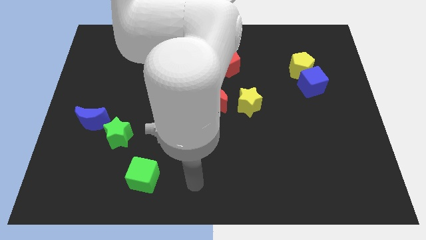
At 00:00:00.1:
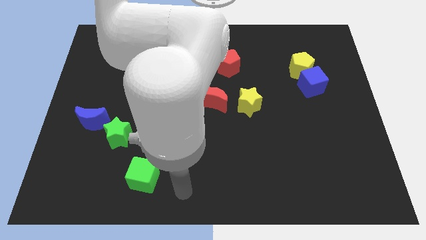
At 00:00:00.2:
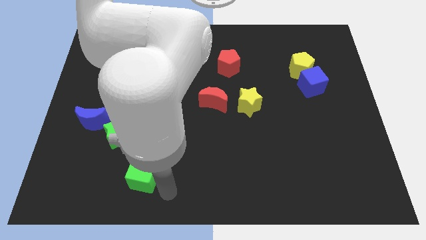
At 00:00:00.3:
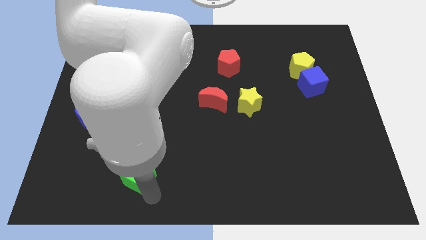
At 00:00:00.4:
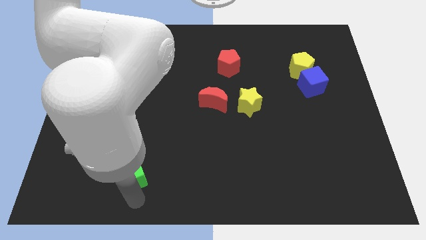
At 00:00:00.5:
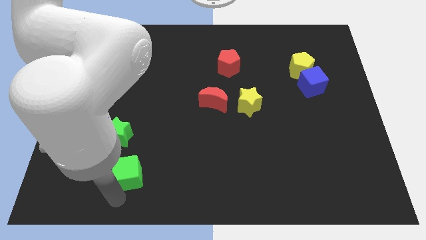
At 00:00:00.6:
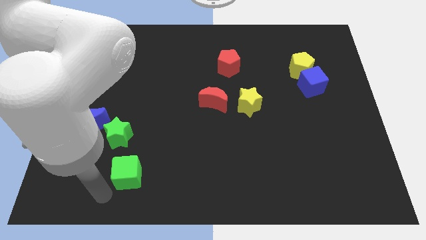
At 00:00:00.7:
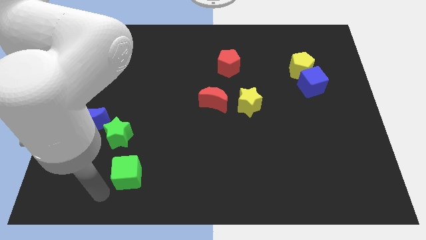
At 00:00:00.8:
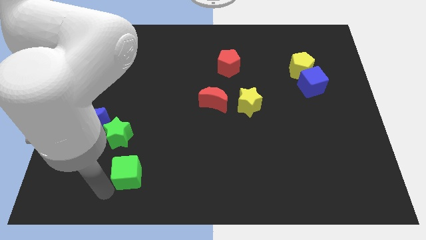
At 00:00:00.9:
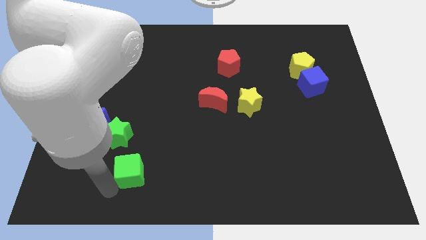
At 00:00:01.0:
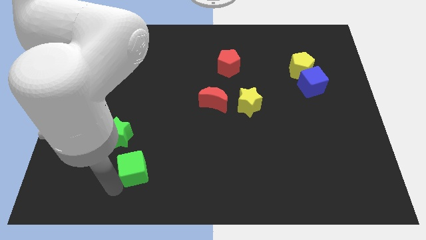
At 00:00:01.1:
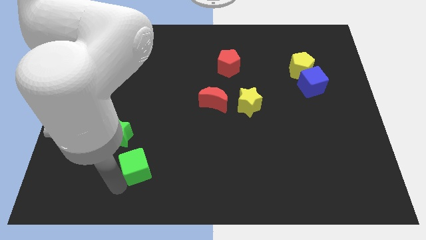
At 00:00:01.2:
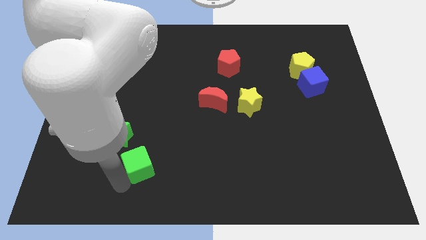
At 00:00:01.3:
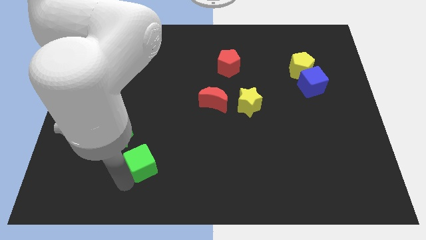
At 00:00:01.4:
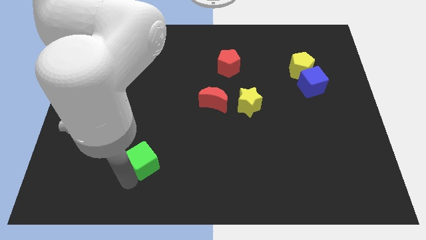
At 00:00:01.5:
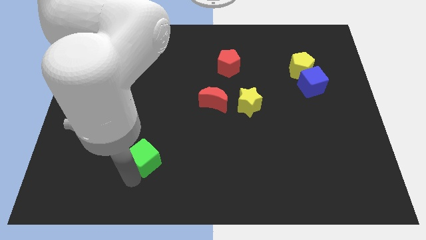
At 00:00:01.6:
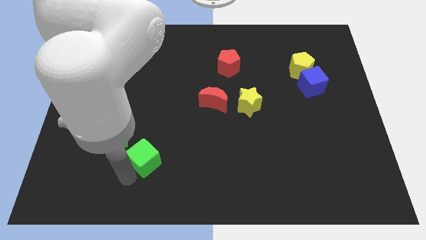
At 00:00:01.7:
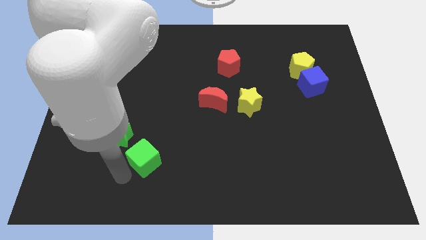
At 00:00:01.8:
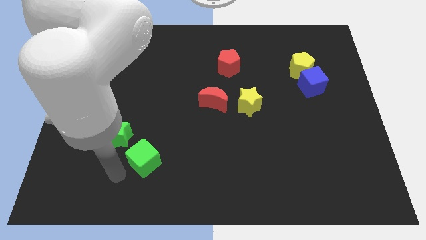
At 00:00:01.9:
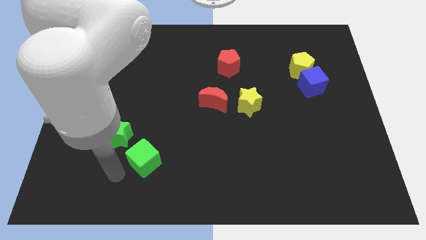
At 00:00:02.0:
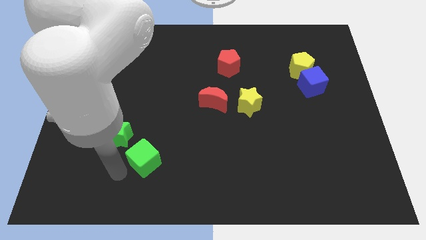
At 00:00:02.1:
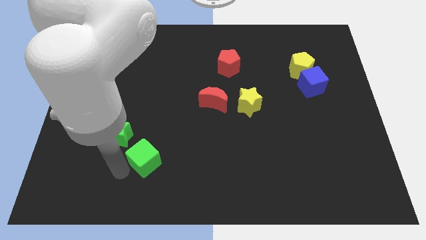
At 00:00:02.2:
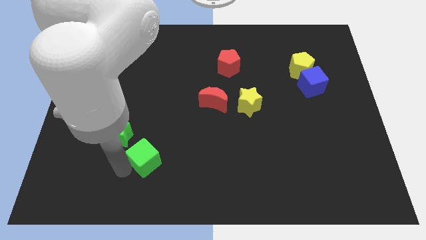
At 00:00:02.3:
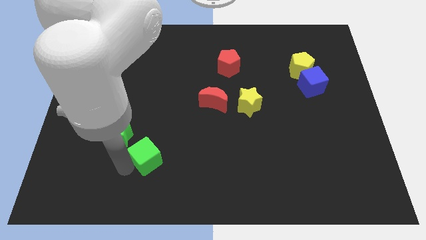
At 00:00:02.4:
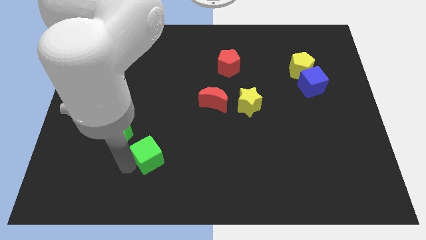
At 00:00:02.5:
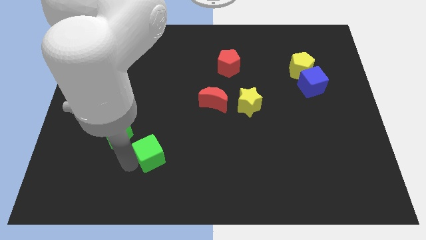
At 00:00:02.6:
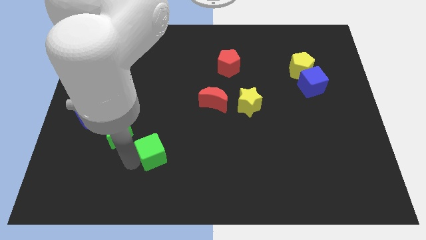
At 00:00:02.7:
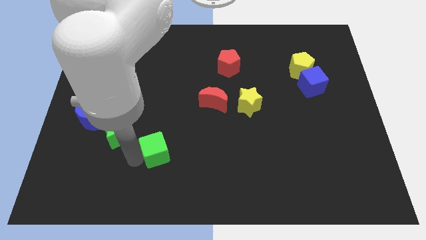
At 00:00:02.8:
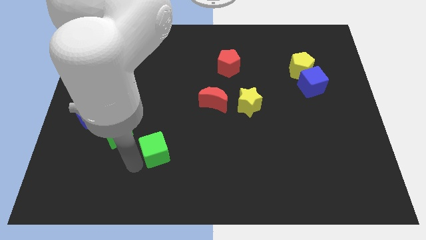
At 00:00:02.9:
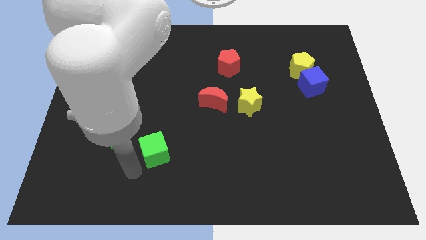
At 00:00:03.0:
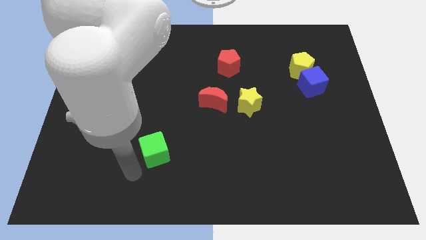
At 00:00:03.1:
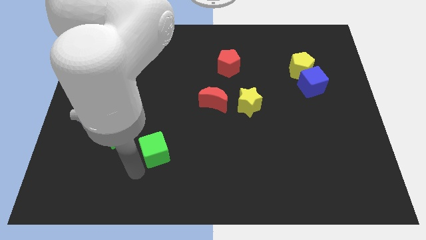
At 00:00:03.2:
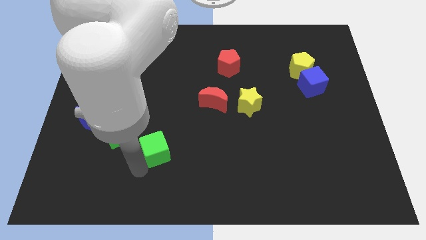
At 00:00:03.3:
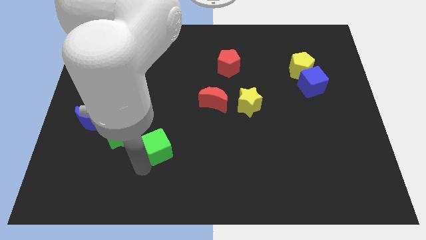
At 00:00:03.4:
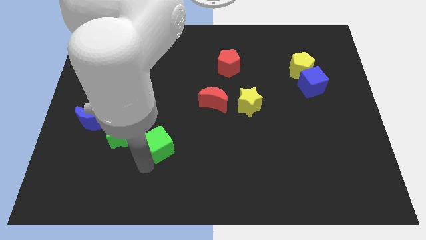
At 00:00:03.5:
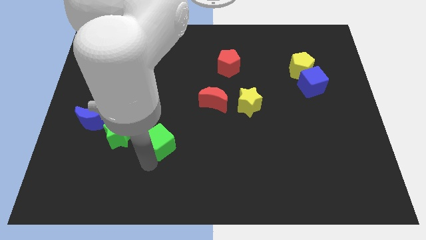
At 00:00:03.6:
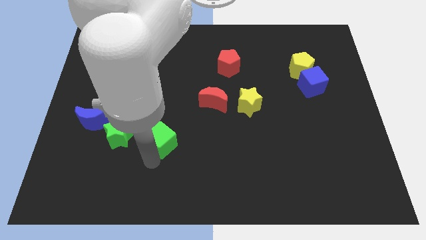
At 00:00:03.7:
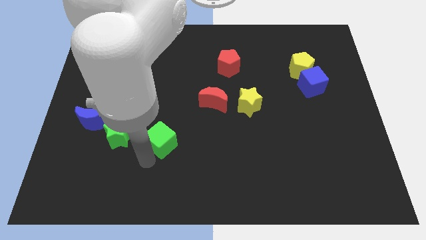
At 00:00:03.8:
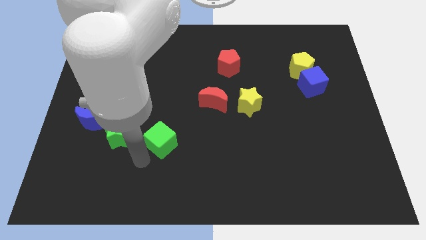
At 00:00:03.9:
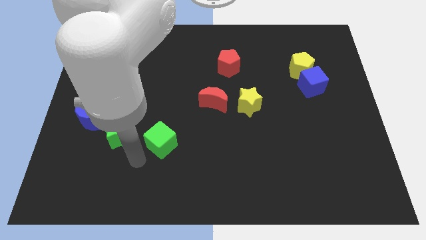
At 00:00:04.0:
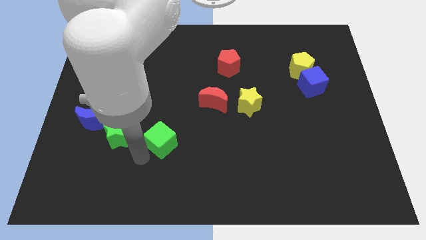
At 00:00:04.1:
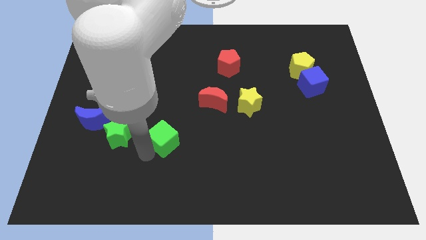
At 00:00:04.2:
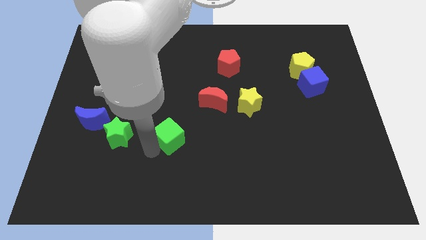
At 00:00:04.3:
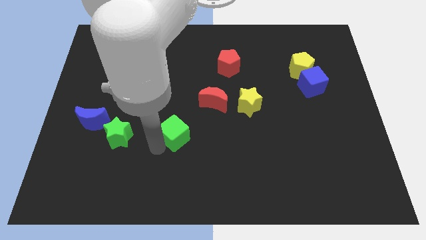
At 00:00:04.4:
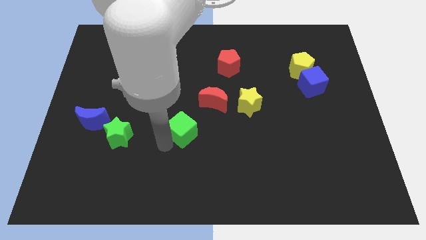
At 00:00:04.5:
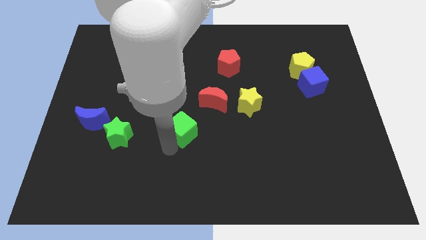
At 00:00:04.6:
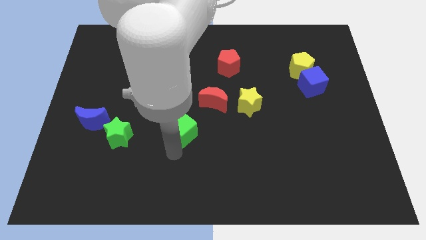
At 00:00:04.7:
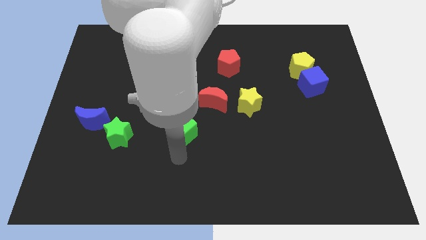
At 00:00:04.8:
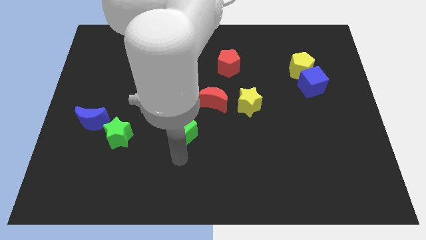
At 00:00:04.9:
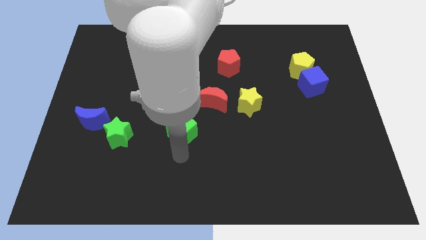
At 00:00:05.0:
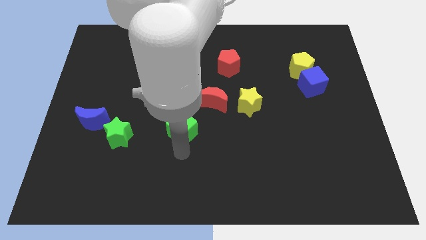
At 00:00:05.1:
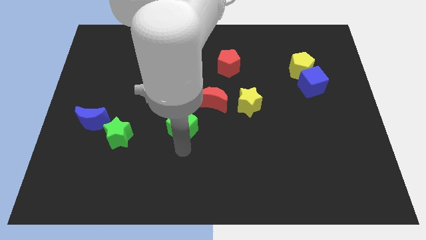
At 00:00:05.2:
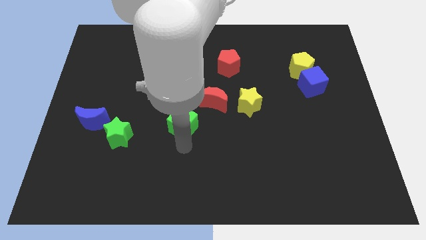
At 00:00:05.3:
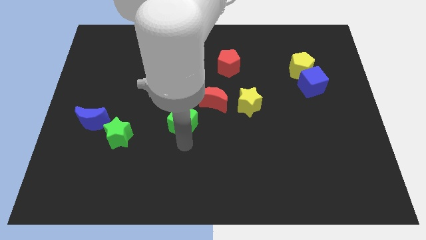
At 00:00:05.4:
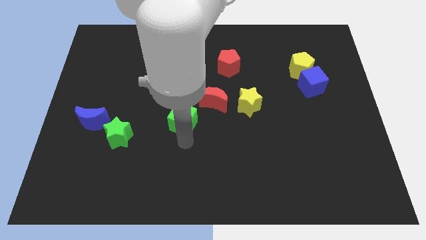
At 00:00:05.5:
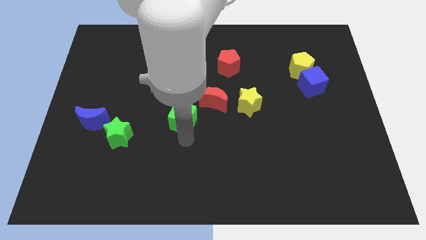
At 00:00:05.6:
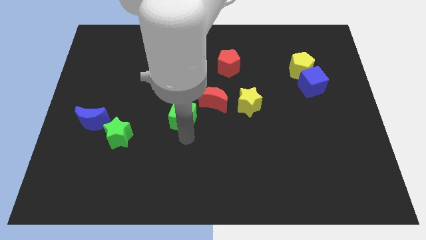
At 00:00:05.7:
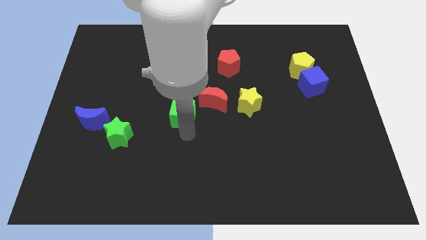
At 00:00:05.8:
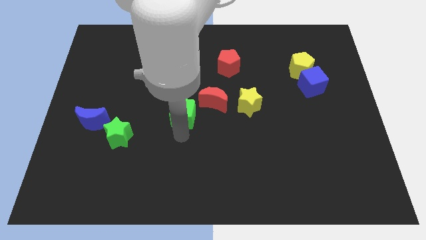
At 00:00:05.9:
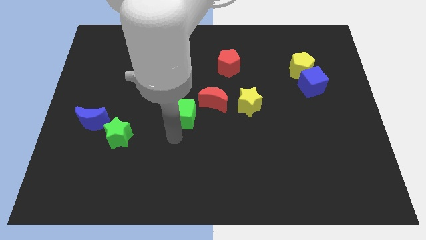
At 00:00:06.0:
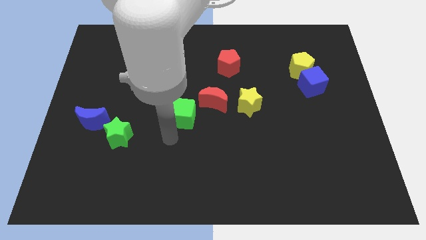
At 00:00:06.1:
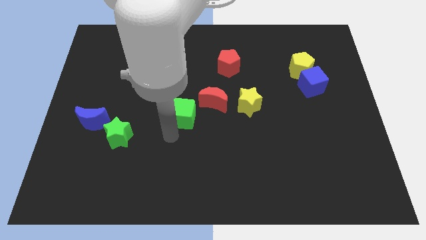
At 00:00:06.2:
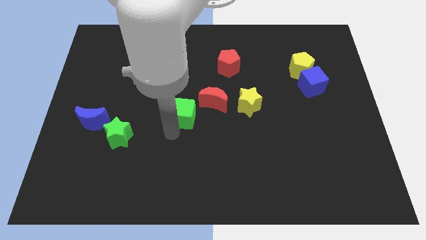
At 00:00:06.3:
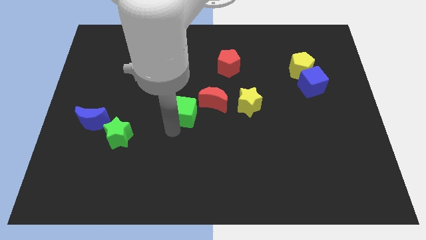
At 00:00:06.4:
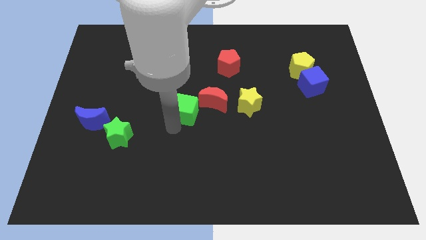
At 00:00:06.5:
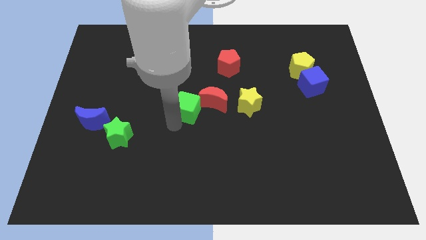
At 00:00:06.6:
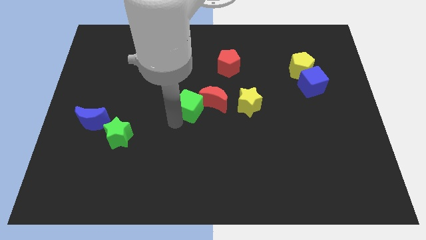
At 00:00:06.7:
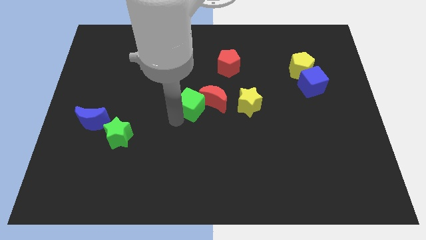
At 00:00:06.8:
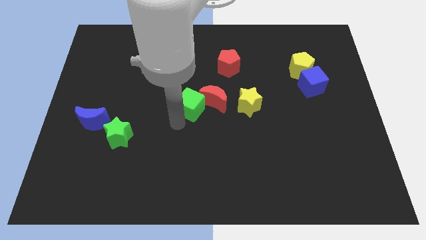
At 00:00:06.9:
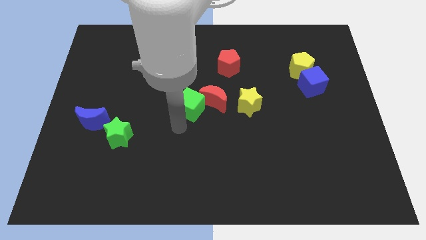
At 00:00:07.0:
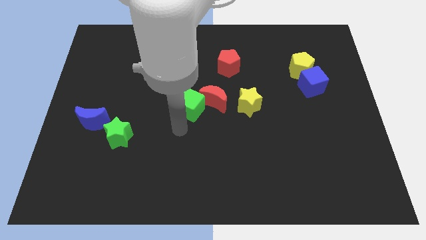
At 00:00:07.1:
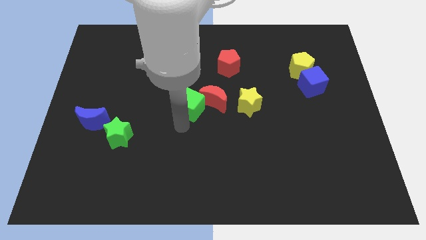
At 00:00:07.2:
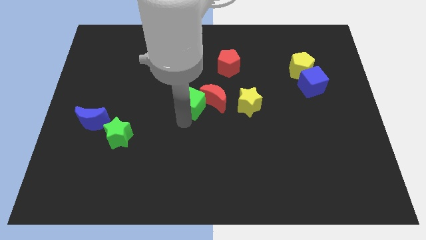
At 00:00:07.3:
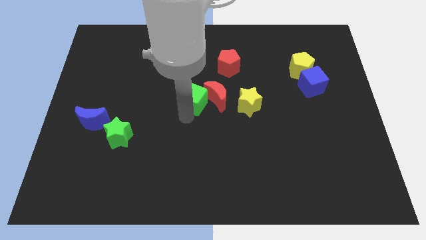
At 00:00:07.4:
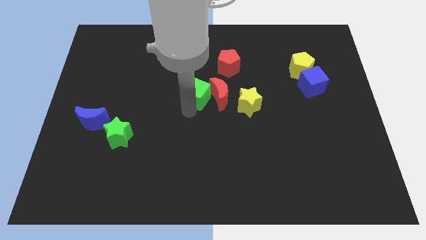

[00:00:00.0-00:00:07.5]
slide the green cube diagonally down and to the left of the red pentagon
